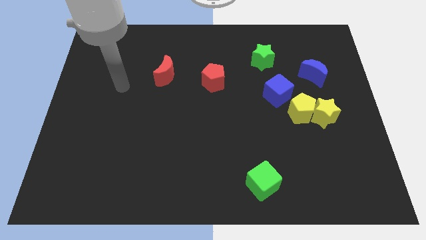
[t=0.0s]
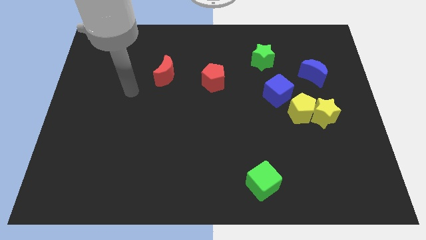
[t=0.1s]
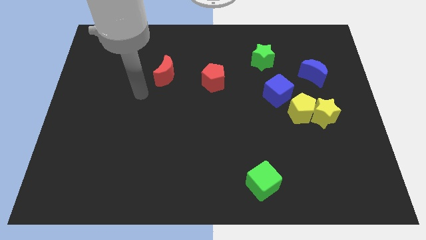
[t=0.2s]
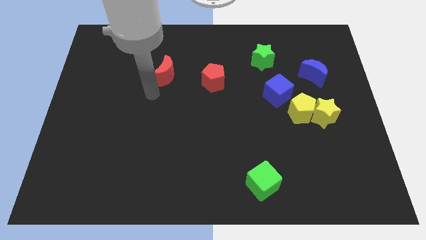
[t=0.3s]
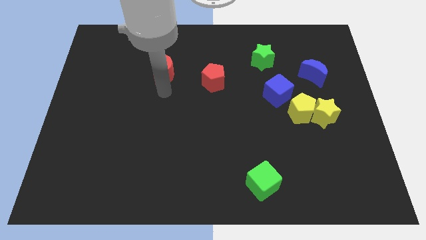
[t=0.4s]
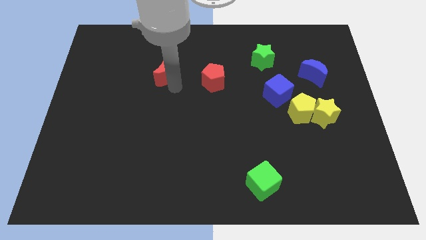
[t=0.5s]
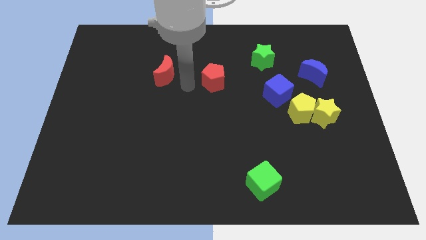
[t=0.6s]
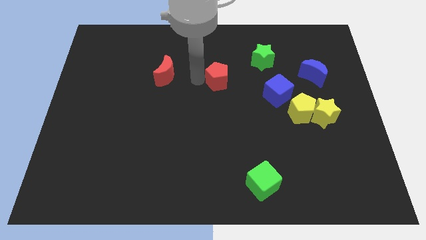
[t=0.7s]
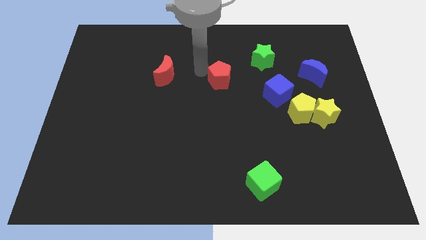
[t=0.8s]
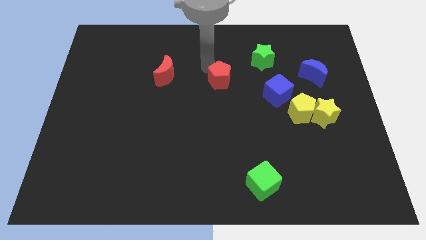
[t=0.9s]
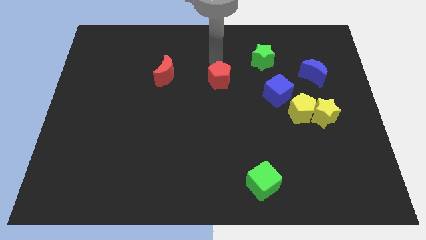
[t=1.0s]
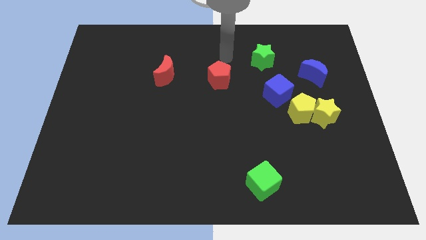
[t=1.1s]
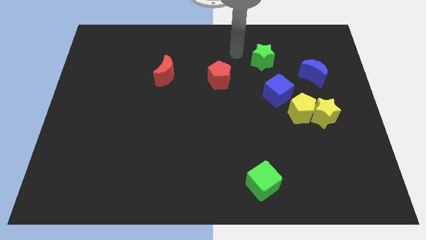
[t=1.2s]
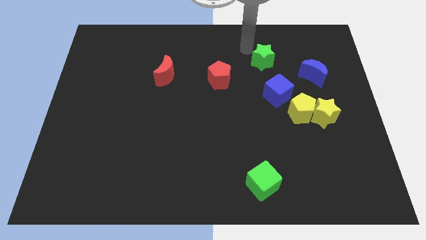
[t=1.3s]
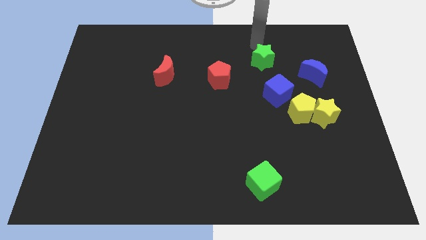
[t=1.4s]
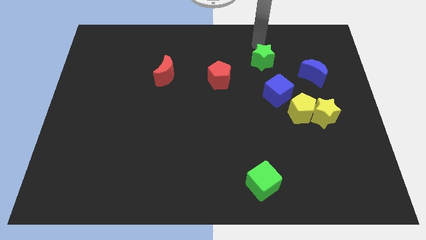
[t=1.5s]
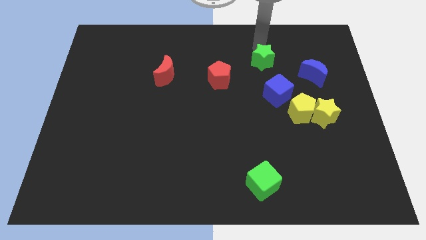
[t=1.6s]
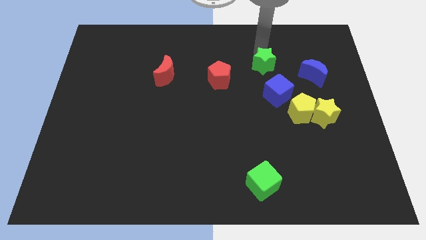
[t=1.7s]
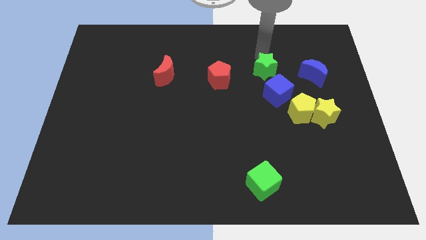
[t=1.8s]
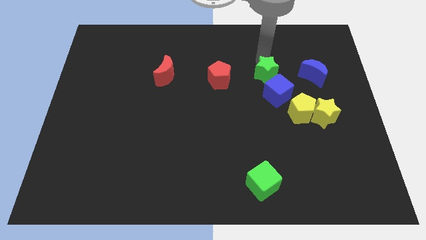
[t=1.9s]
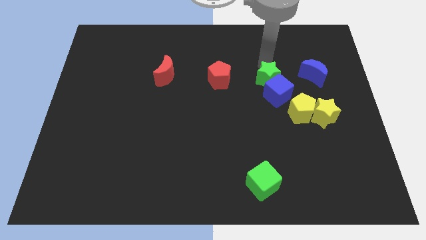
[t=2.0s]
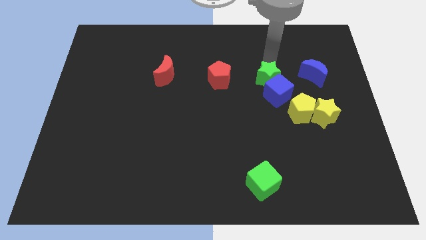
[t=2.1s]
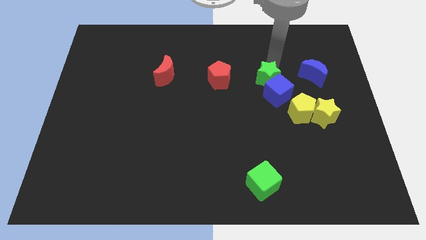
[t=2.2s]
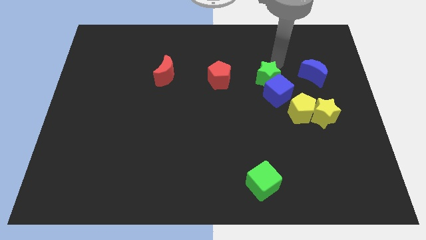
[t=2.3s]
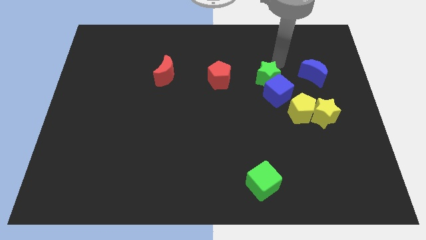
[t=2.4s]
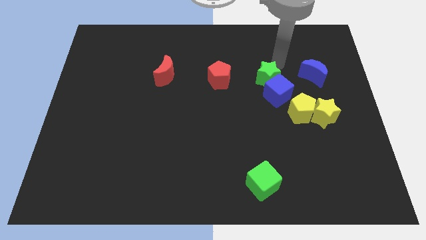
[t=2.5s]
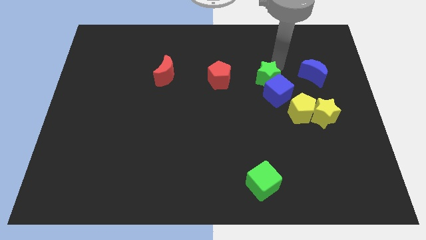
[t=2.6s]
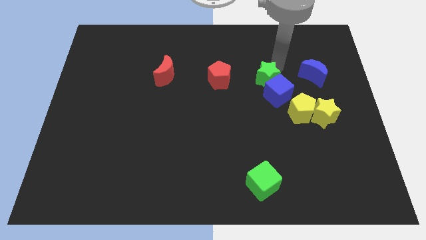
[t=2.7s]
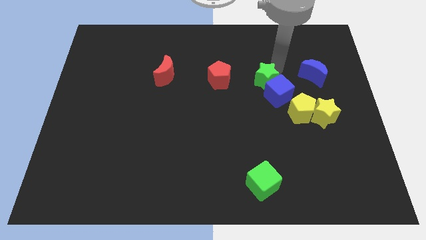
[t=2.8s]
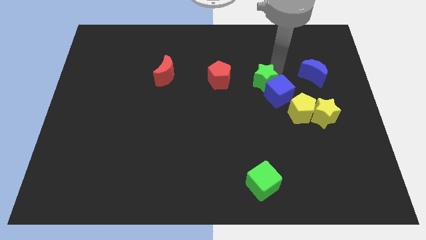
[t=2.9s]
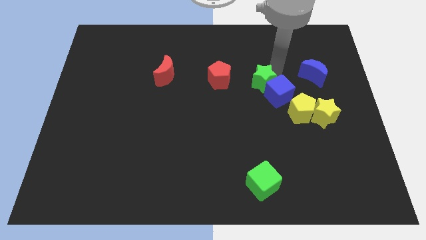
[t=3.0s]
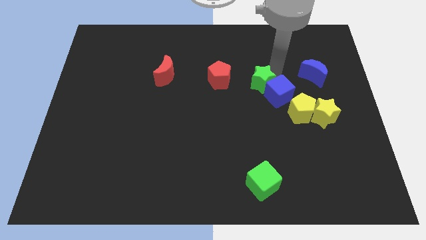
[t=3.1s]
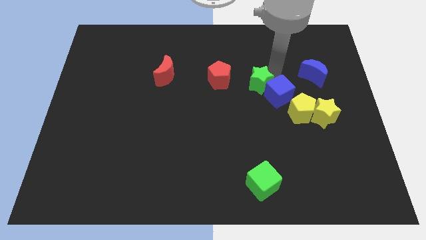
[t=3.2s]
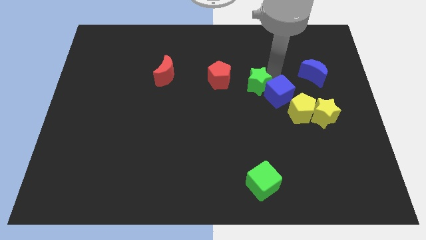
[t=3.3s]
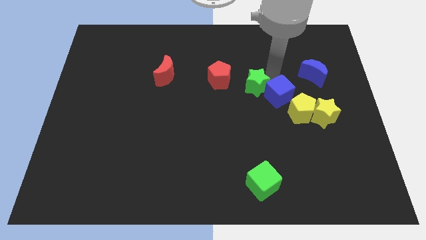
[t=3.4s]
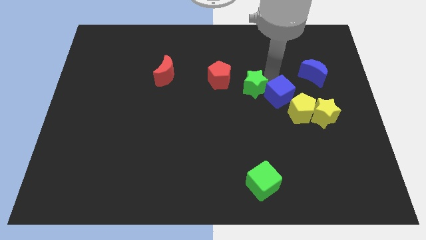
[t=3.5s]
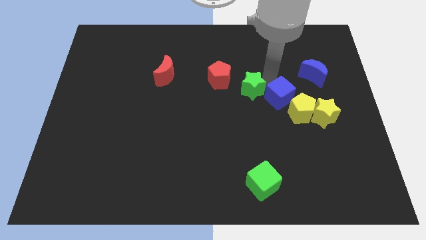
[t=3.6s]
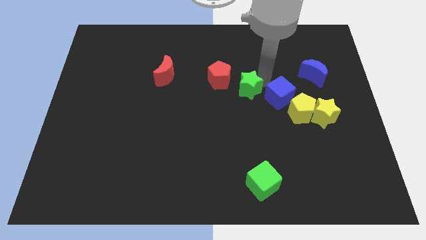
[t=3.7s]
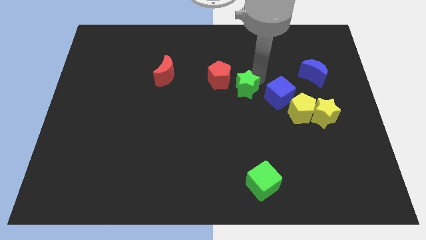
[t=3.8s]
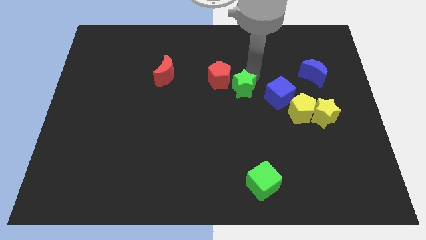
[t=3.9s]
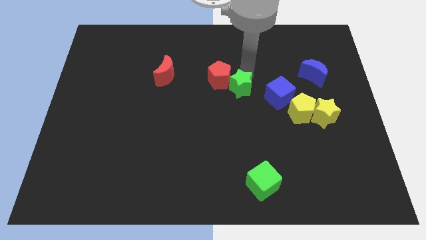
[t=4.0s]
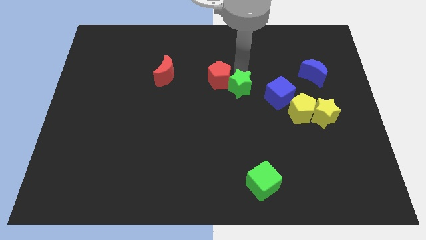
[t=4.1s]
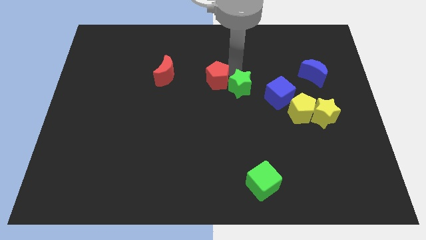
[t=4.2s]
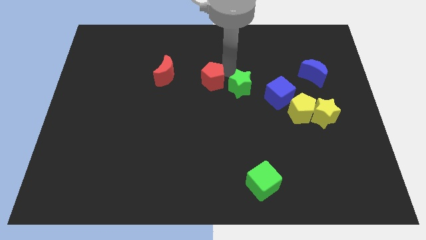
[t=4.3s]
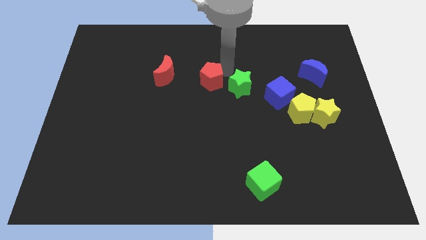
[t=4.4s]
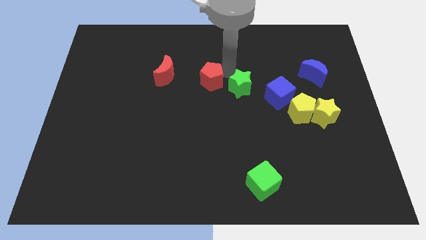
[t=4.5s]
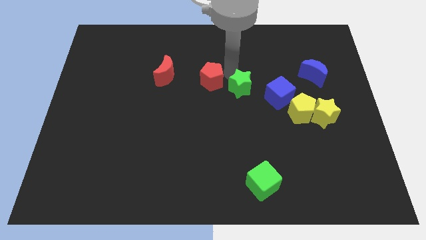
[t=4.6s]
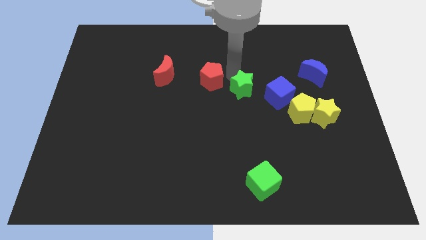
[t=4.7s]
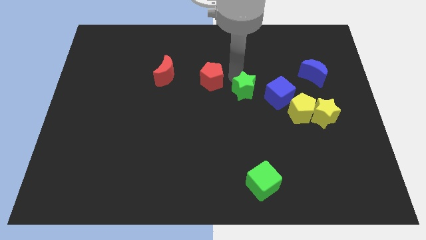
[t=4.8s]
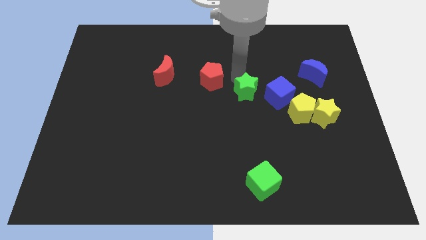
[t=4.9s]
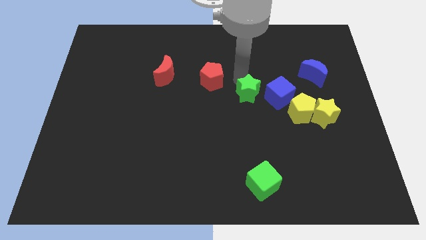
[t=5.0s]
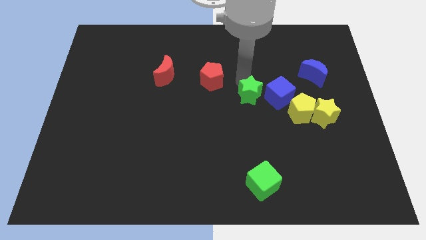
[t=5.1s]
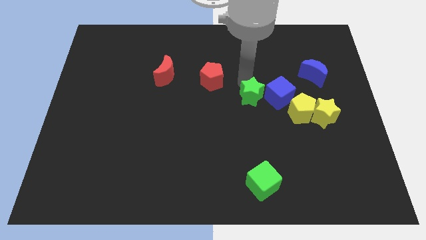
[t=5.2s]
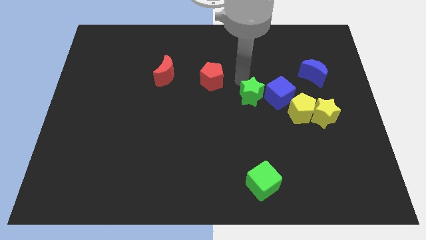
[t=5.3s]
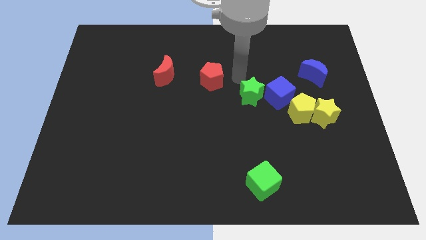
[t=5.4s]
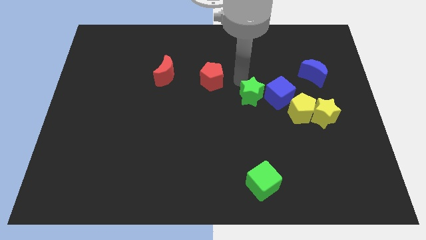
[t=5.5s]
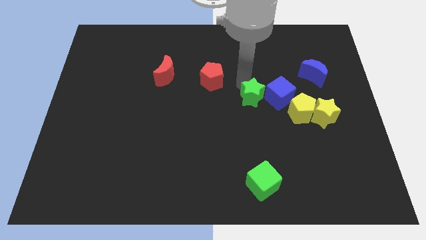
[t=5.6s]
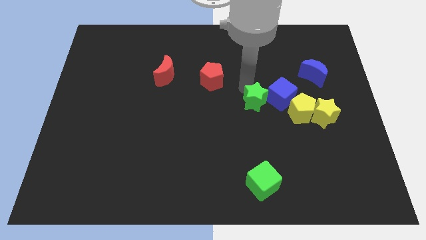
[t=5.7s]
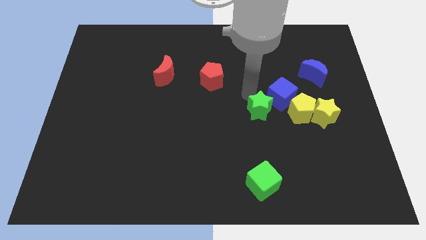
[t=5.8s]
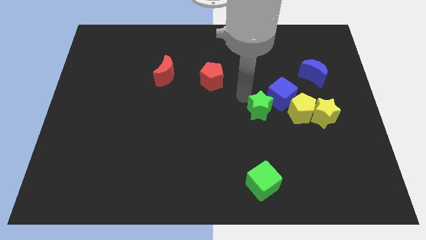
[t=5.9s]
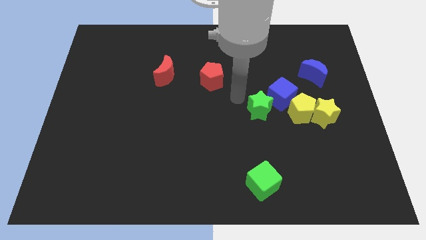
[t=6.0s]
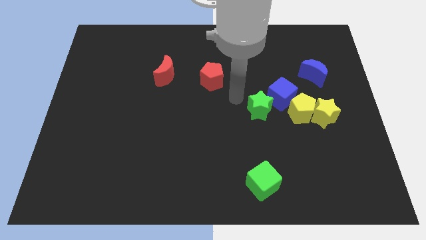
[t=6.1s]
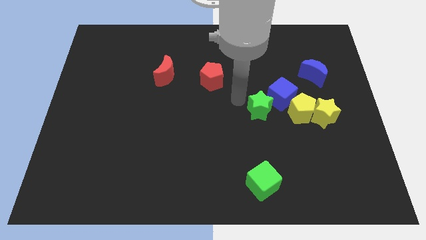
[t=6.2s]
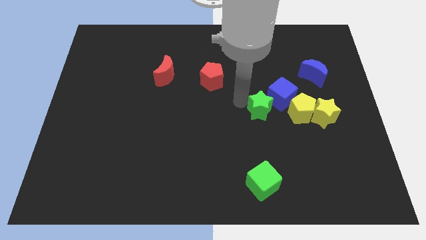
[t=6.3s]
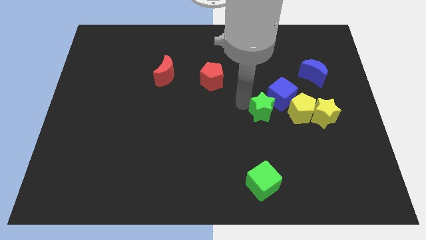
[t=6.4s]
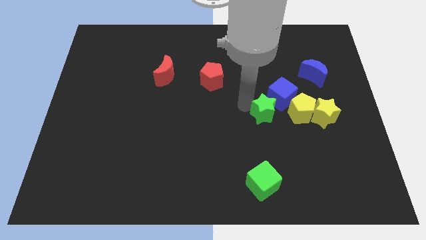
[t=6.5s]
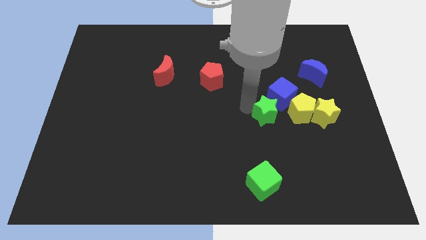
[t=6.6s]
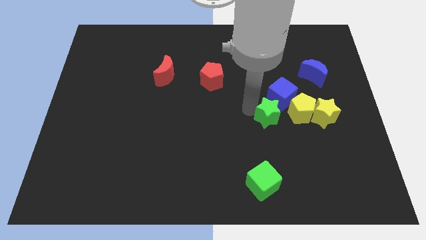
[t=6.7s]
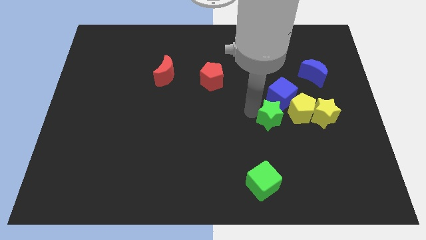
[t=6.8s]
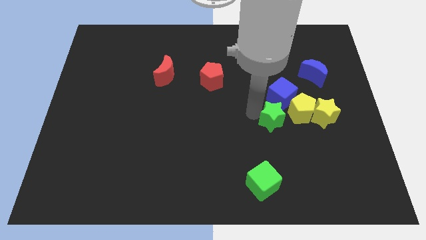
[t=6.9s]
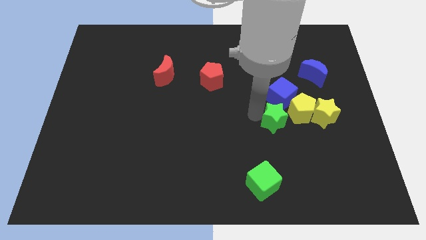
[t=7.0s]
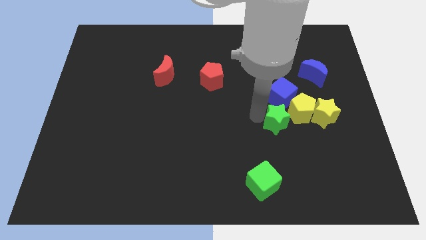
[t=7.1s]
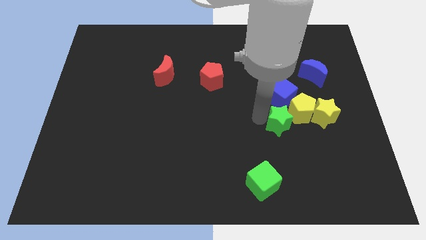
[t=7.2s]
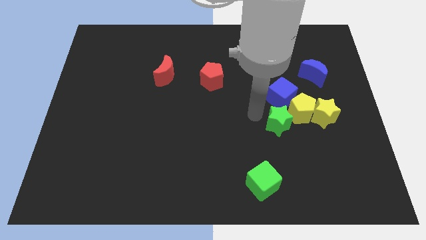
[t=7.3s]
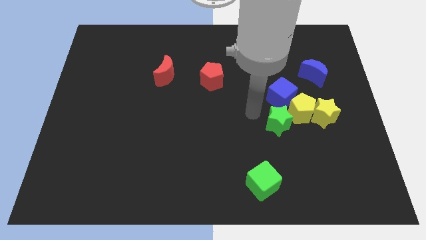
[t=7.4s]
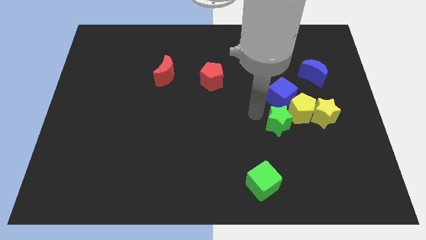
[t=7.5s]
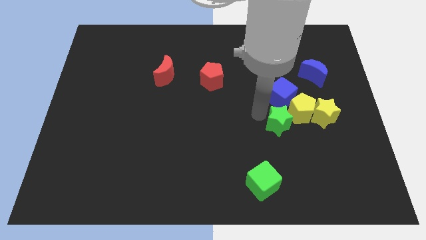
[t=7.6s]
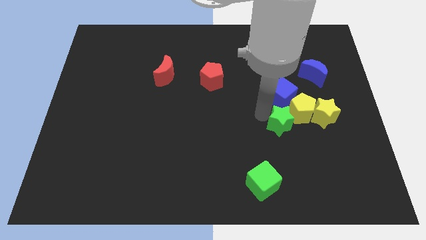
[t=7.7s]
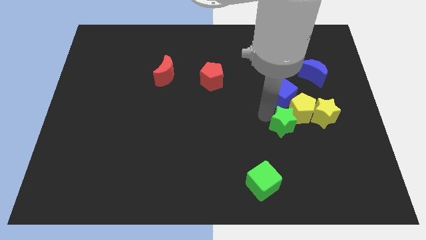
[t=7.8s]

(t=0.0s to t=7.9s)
move the green star to the bottom left of the yellow star
